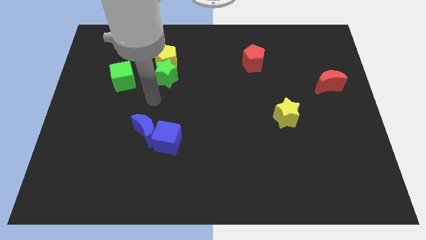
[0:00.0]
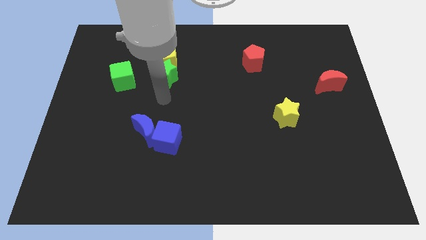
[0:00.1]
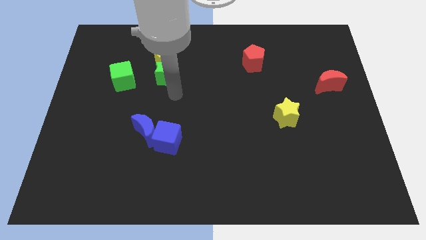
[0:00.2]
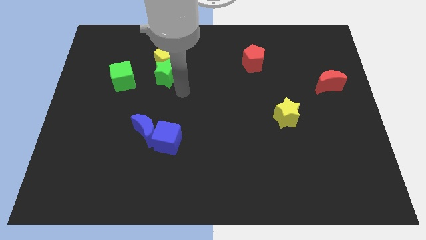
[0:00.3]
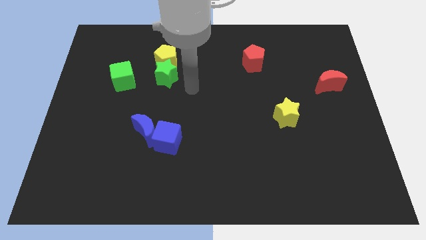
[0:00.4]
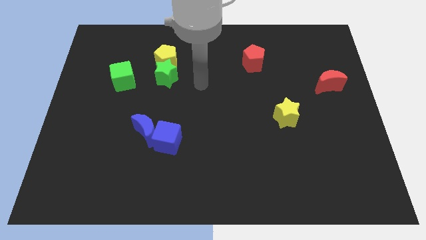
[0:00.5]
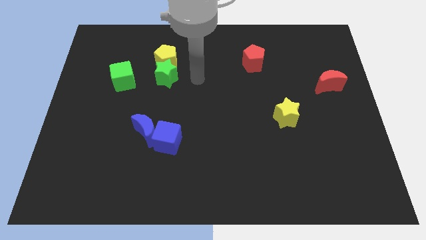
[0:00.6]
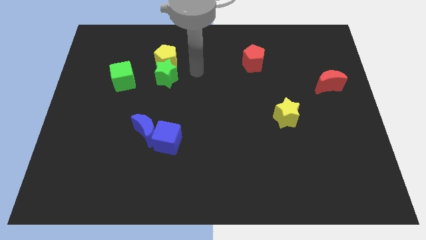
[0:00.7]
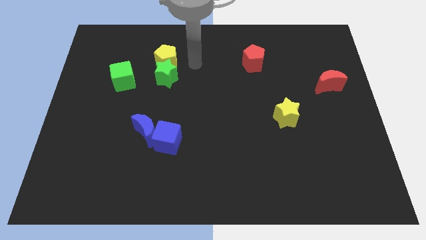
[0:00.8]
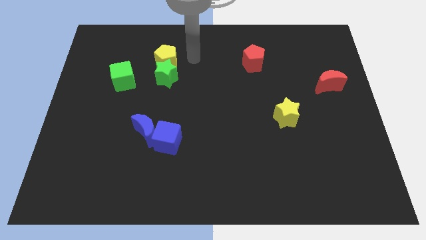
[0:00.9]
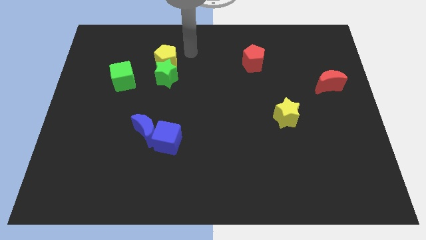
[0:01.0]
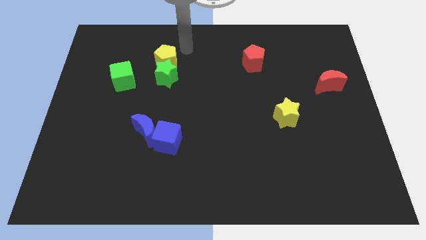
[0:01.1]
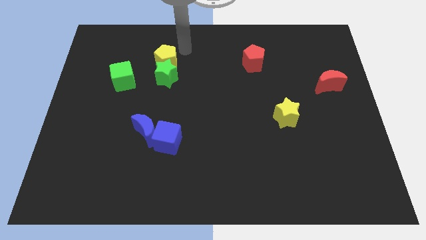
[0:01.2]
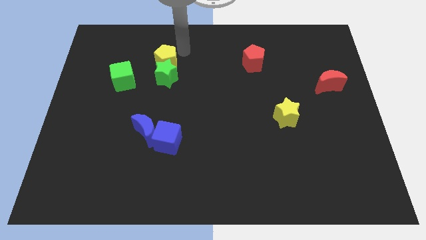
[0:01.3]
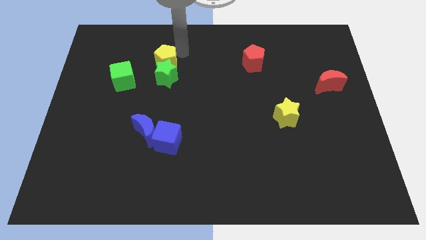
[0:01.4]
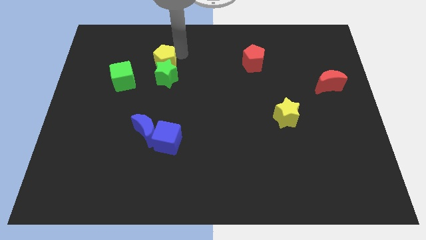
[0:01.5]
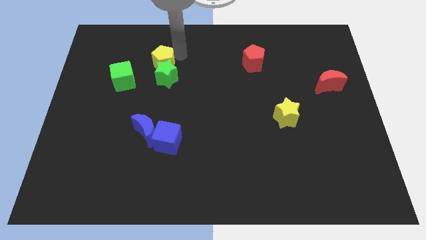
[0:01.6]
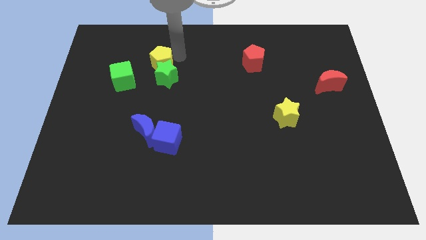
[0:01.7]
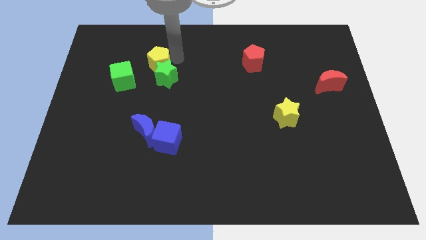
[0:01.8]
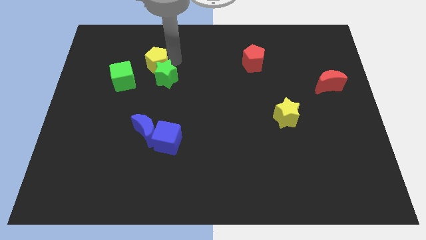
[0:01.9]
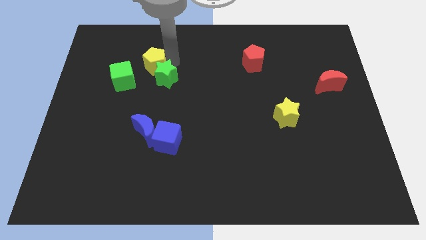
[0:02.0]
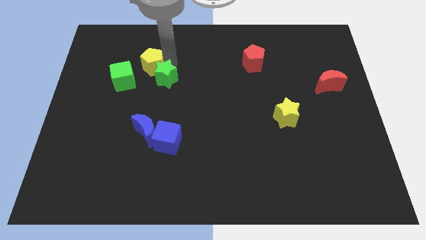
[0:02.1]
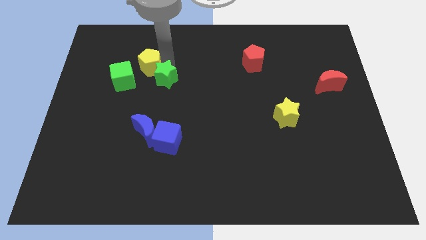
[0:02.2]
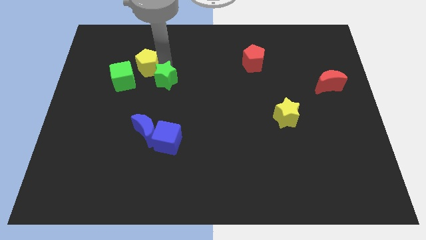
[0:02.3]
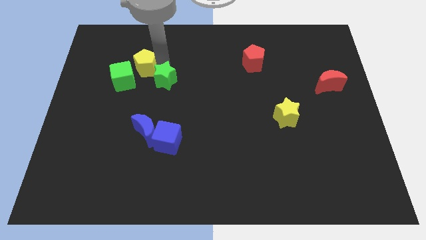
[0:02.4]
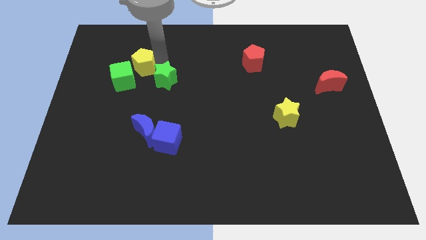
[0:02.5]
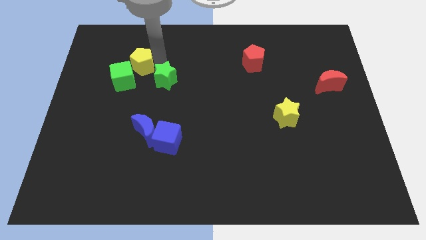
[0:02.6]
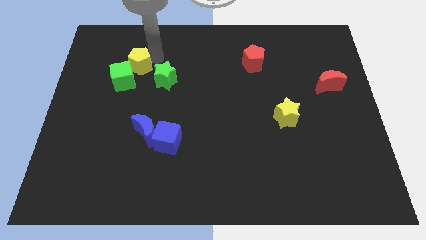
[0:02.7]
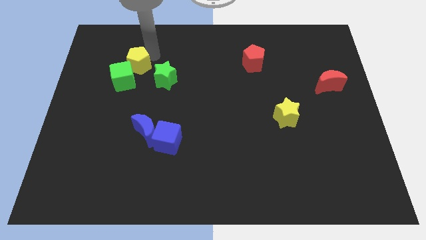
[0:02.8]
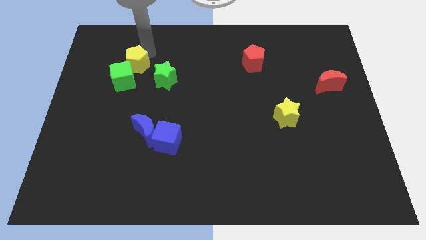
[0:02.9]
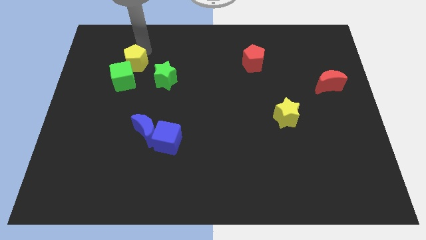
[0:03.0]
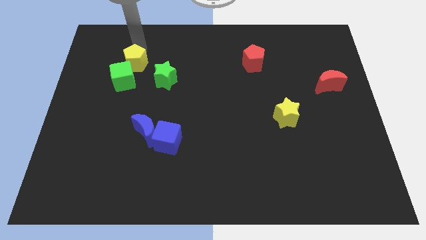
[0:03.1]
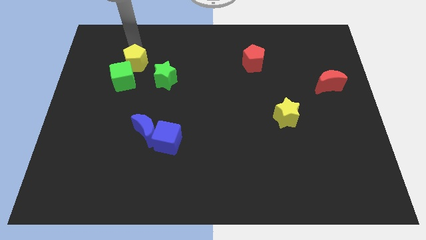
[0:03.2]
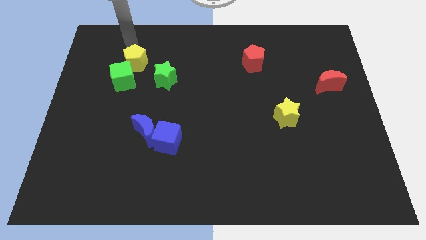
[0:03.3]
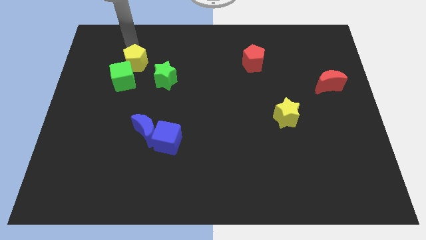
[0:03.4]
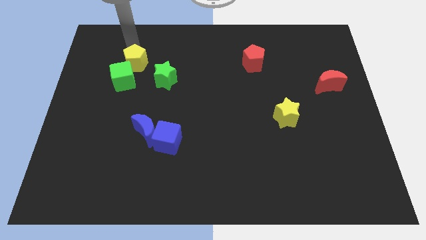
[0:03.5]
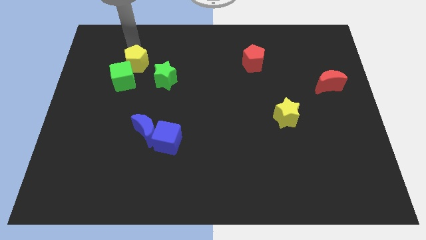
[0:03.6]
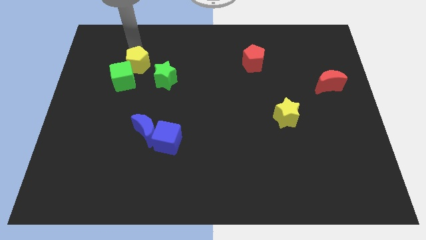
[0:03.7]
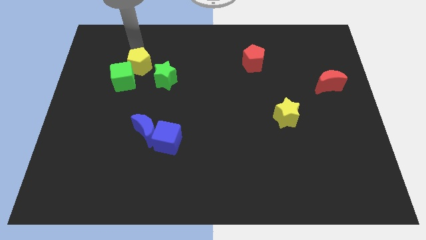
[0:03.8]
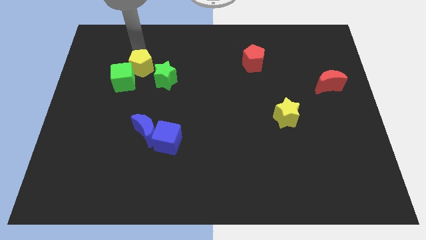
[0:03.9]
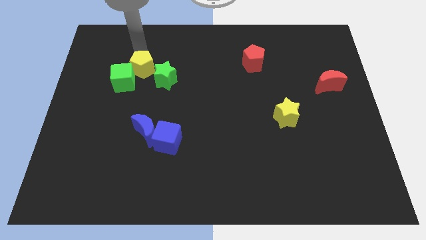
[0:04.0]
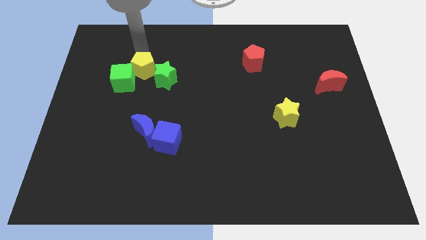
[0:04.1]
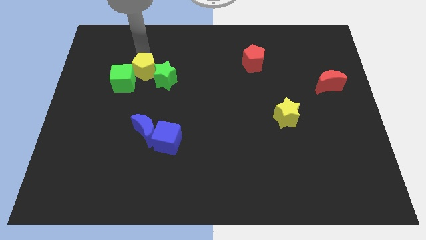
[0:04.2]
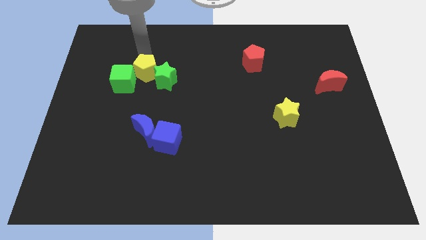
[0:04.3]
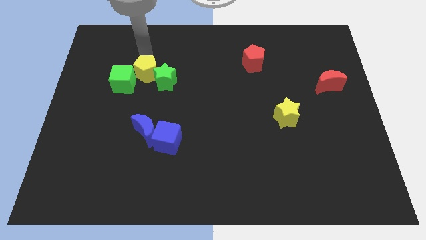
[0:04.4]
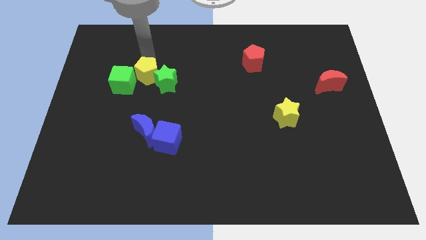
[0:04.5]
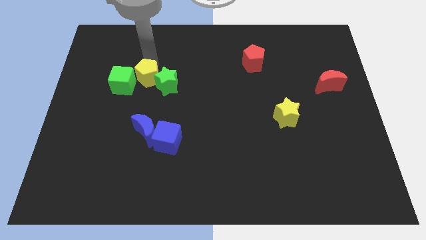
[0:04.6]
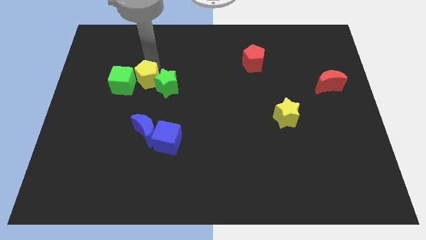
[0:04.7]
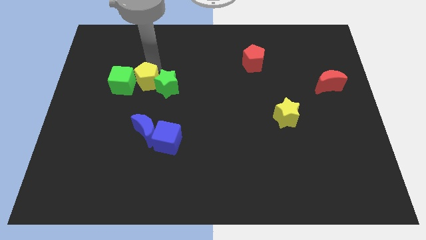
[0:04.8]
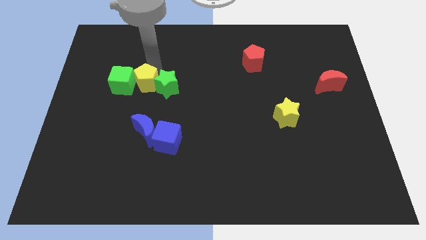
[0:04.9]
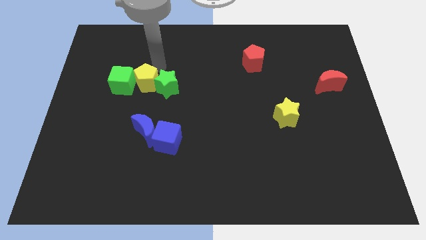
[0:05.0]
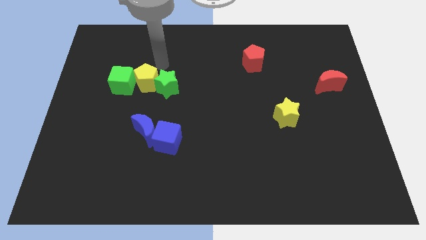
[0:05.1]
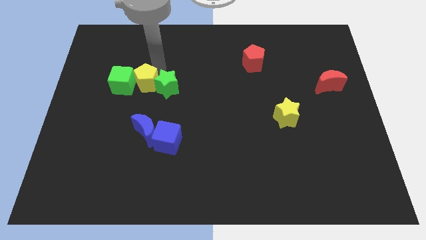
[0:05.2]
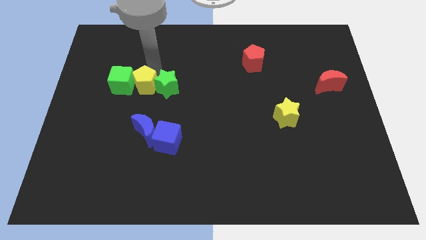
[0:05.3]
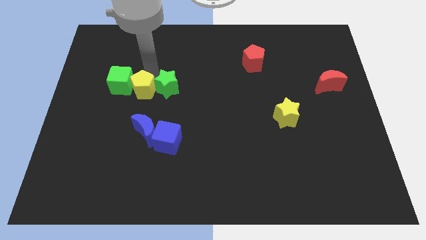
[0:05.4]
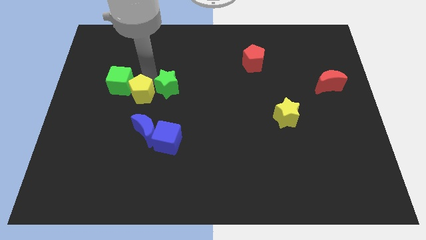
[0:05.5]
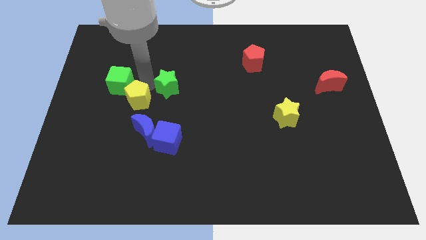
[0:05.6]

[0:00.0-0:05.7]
slide the yellow pentagon to the top left side of the blue moon

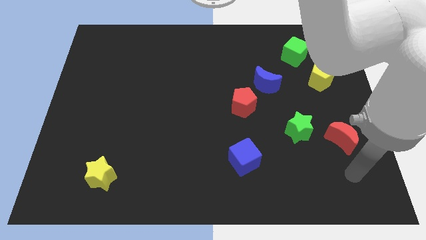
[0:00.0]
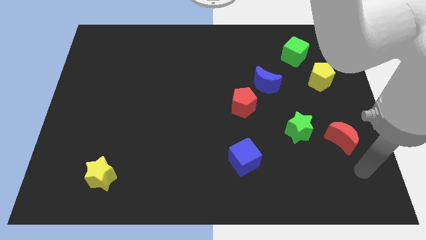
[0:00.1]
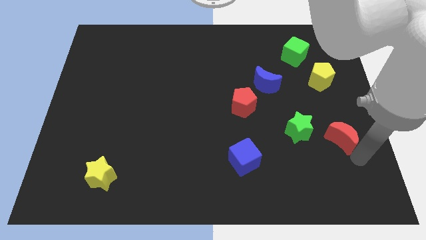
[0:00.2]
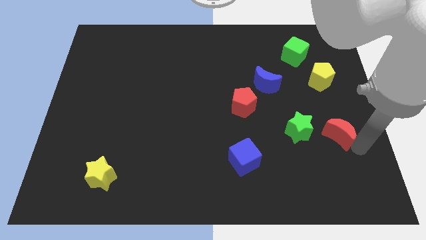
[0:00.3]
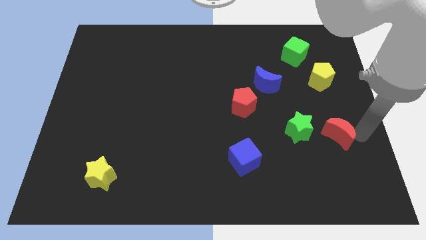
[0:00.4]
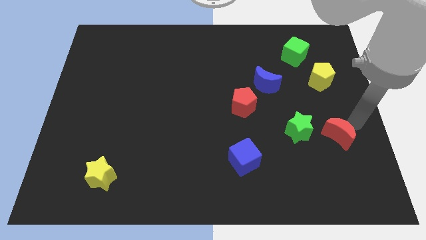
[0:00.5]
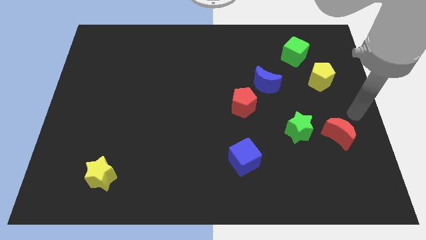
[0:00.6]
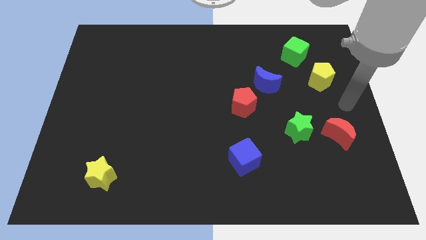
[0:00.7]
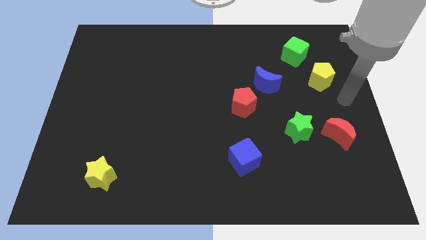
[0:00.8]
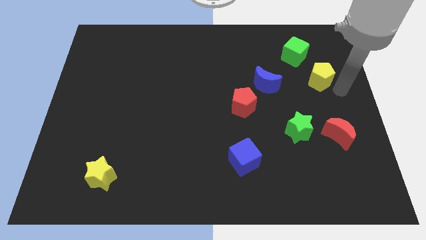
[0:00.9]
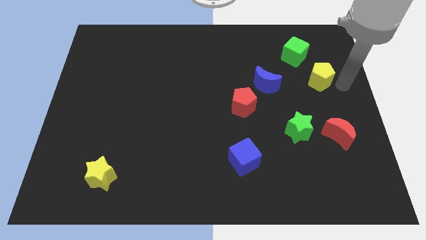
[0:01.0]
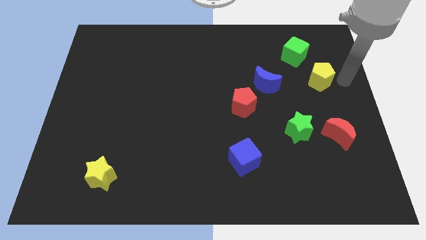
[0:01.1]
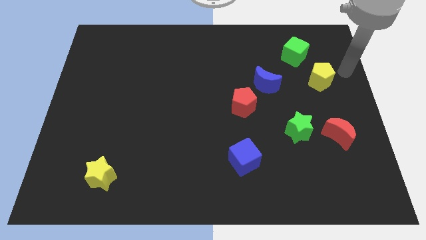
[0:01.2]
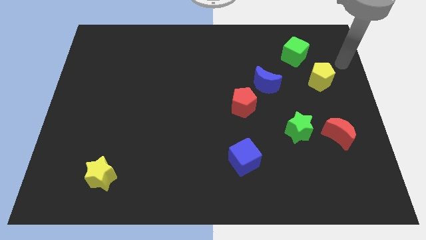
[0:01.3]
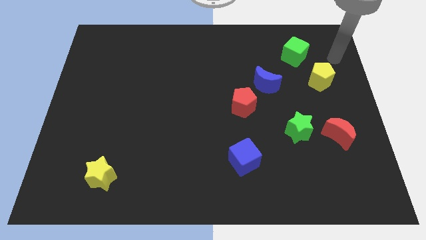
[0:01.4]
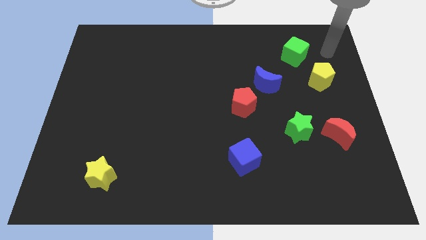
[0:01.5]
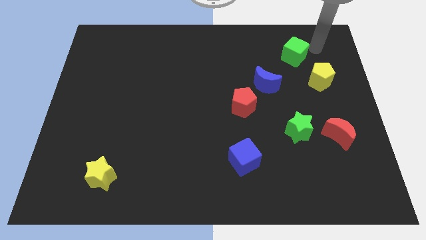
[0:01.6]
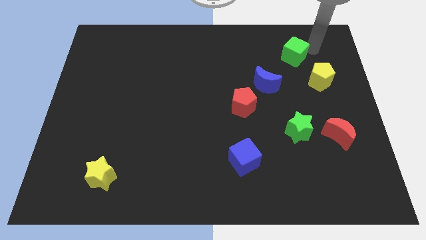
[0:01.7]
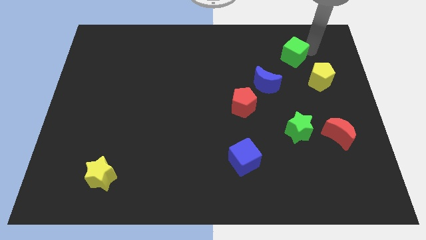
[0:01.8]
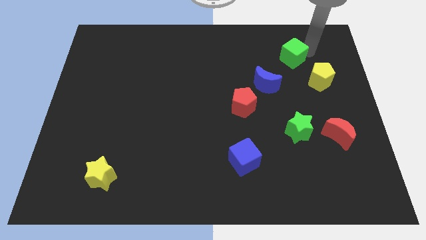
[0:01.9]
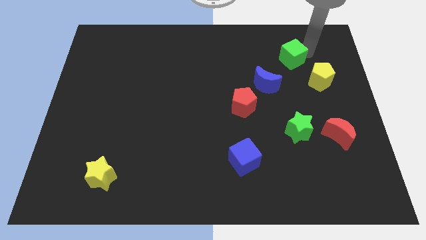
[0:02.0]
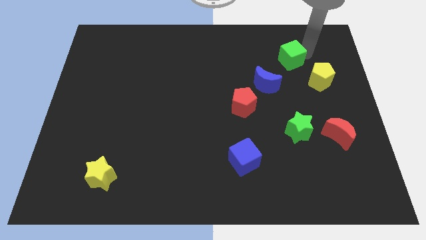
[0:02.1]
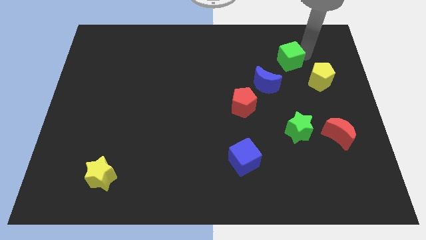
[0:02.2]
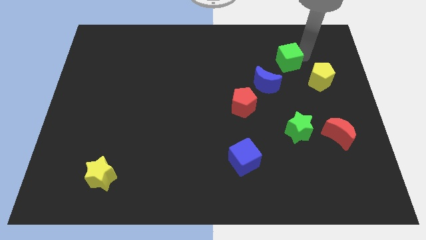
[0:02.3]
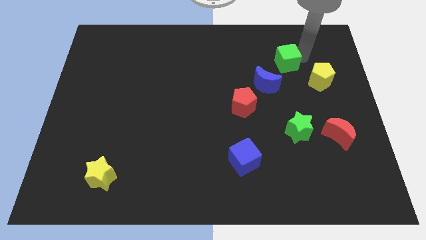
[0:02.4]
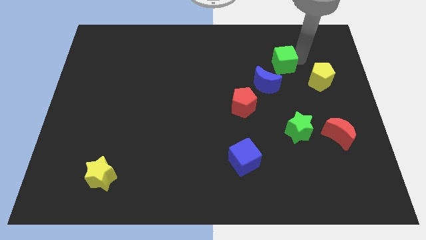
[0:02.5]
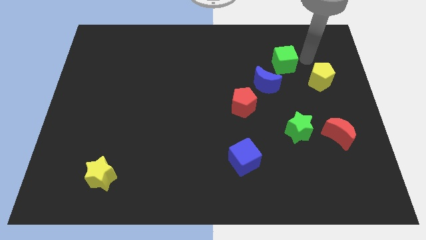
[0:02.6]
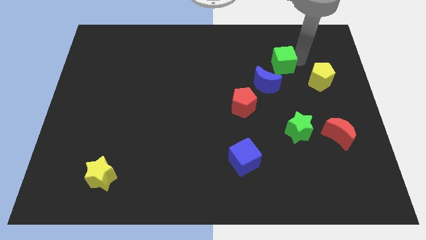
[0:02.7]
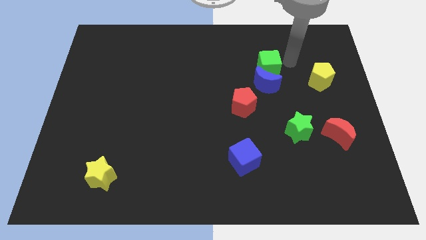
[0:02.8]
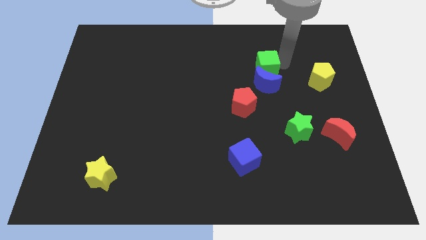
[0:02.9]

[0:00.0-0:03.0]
move the green cube diagonally up and to the left of the blue moon
